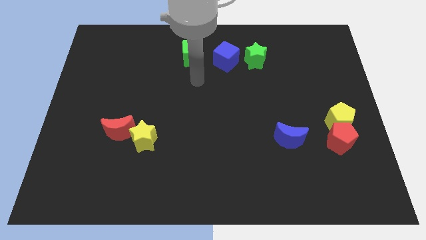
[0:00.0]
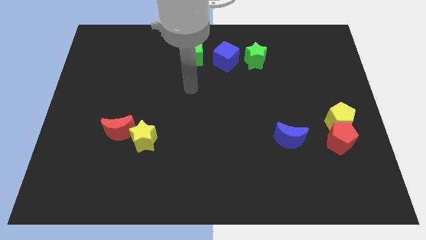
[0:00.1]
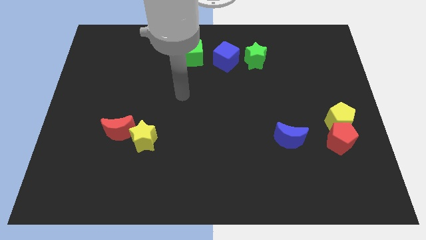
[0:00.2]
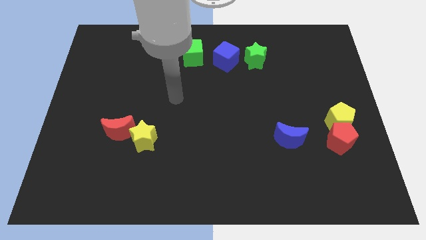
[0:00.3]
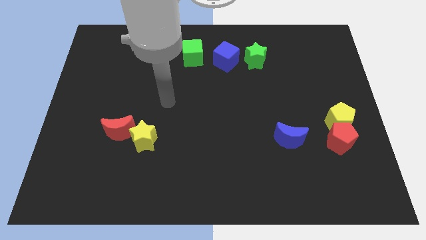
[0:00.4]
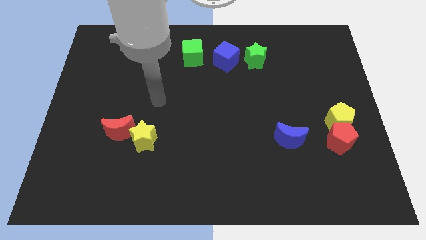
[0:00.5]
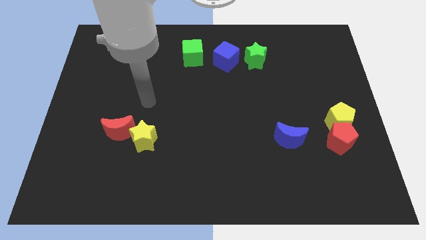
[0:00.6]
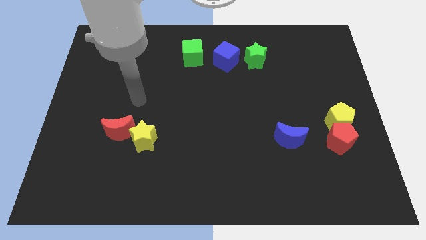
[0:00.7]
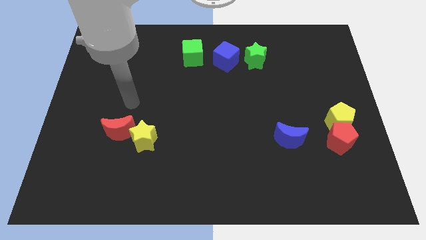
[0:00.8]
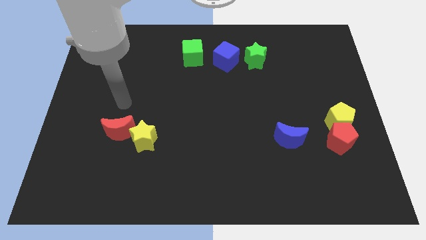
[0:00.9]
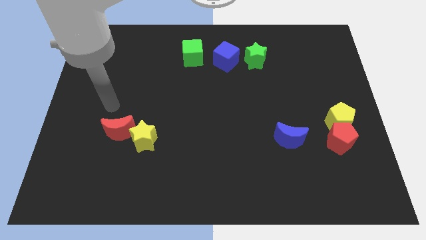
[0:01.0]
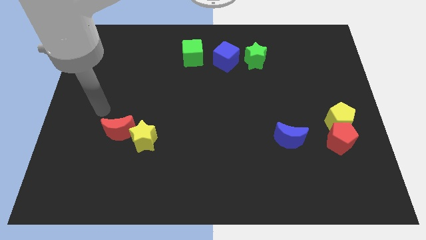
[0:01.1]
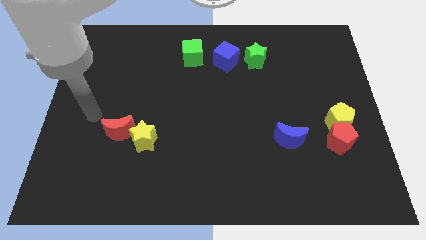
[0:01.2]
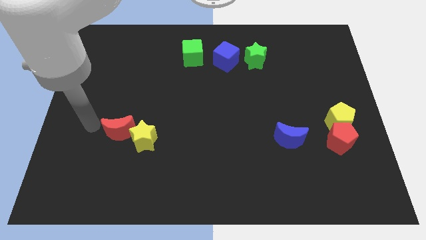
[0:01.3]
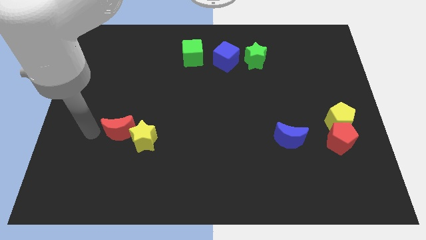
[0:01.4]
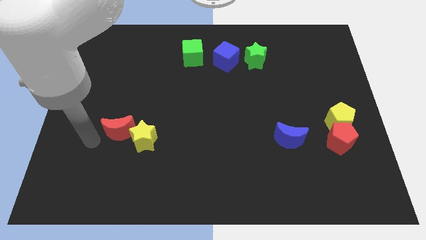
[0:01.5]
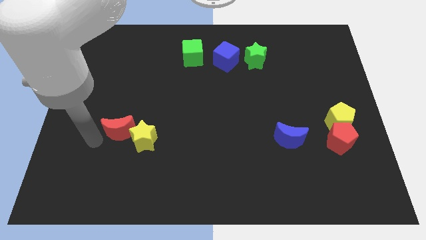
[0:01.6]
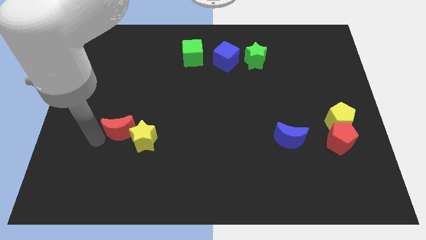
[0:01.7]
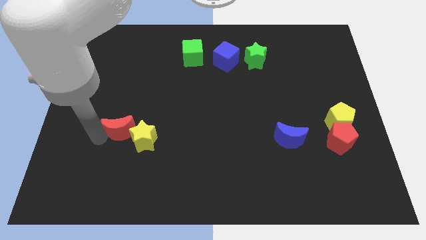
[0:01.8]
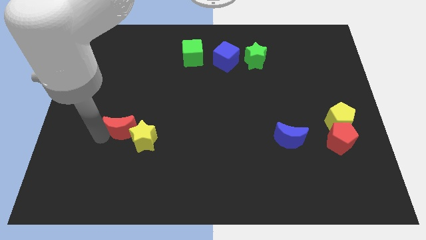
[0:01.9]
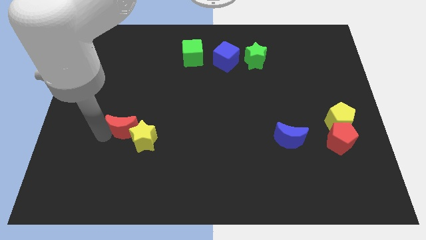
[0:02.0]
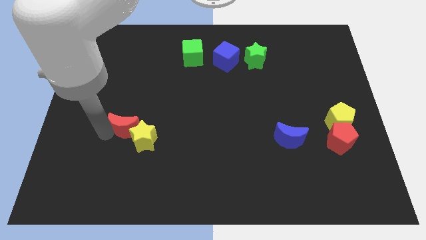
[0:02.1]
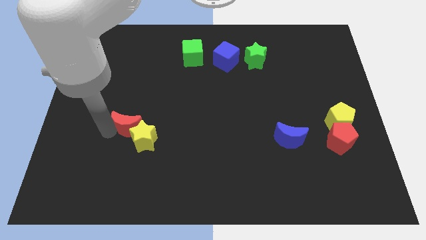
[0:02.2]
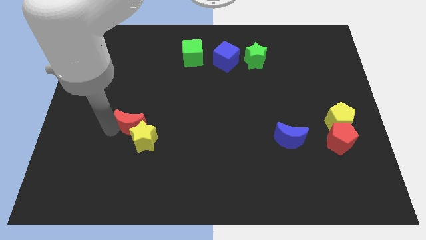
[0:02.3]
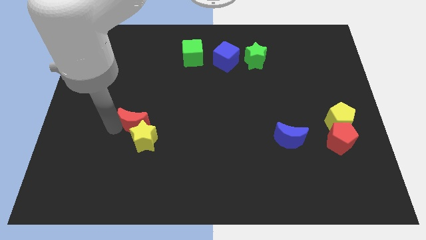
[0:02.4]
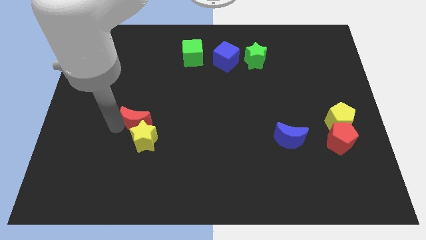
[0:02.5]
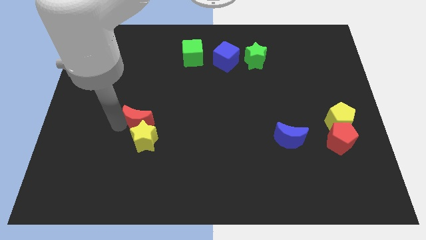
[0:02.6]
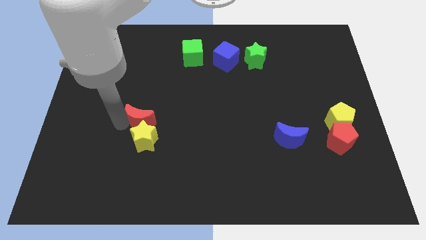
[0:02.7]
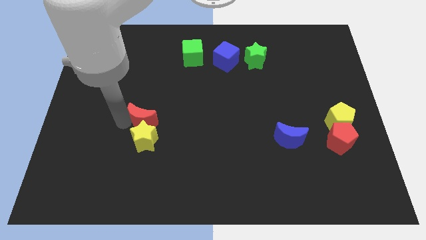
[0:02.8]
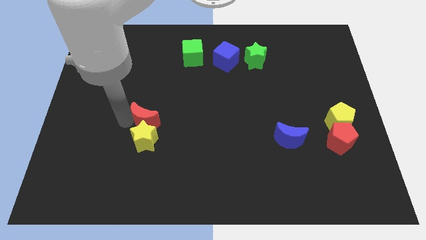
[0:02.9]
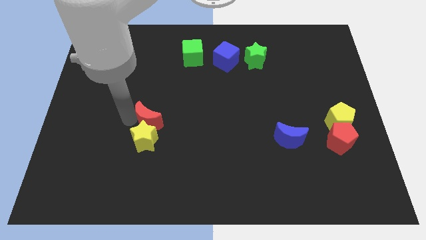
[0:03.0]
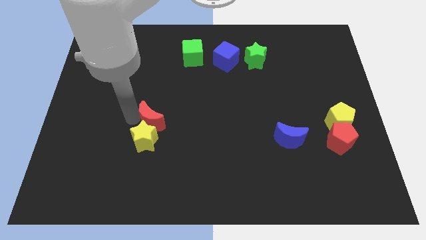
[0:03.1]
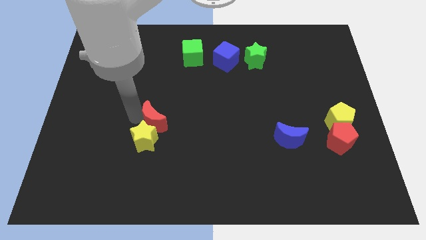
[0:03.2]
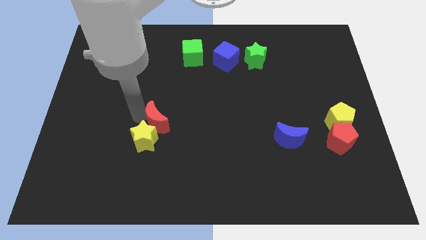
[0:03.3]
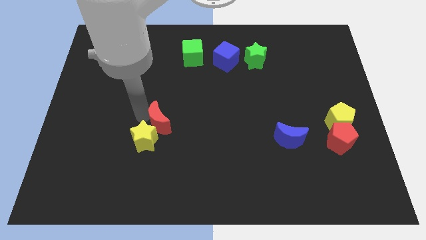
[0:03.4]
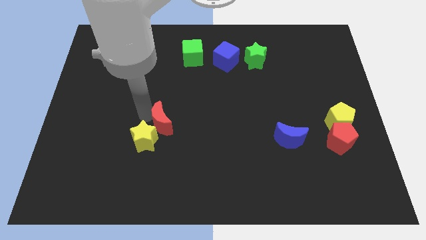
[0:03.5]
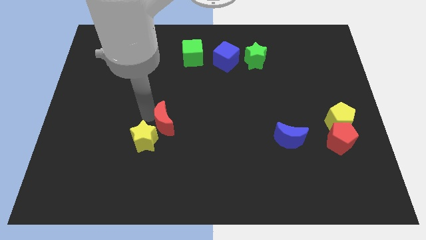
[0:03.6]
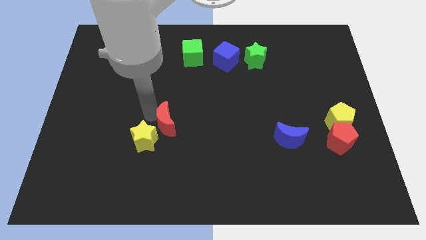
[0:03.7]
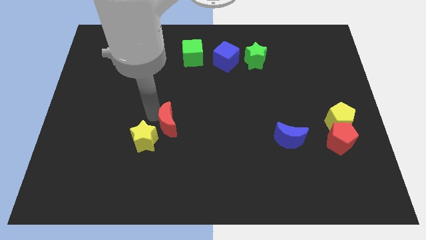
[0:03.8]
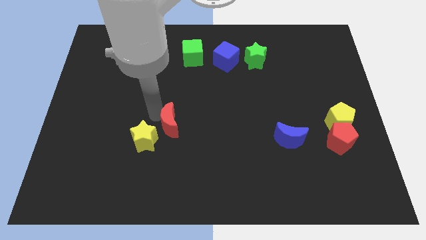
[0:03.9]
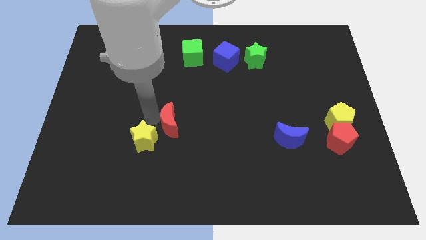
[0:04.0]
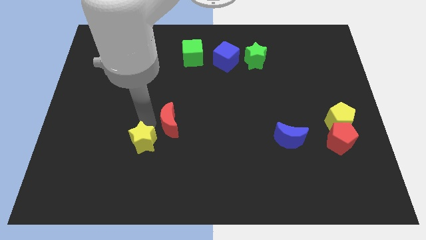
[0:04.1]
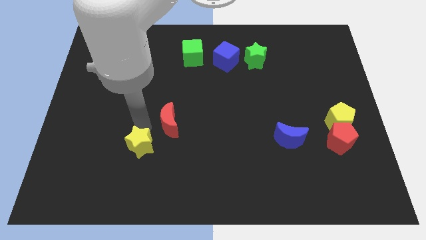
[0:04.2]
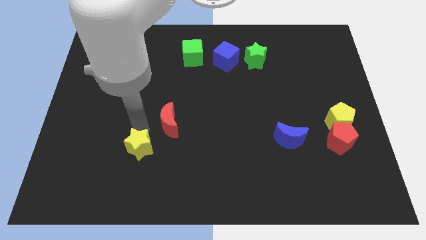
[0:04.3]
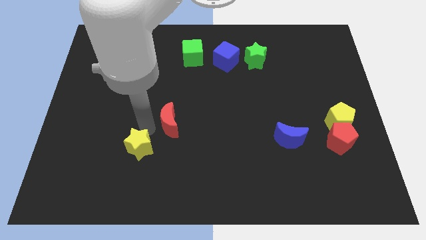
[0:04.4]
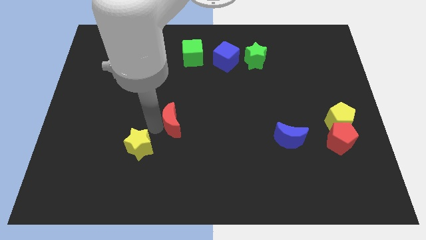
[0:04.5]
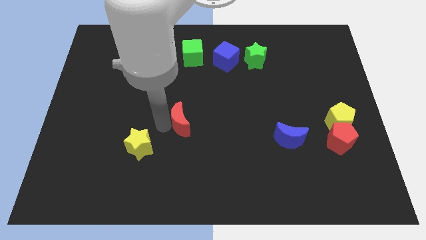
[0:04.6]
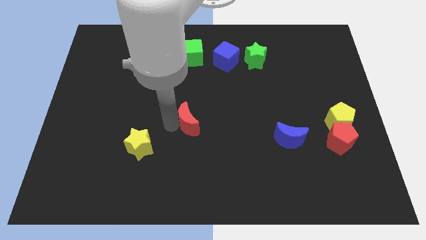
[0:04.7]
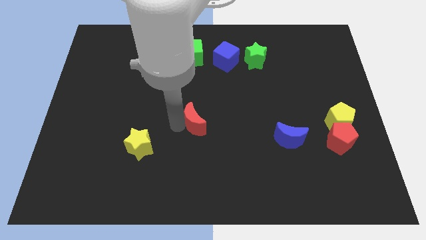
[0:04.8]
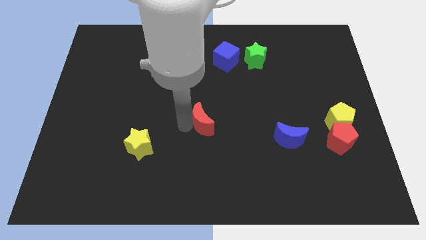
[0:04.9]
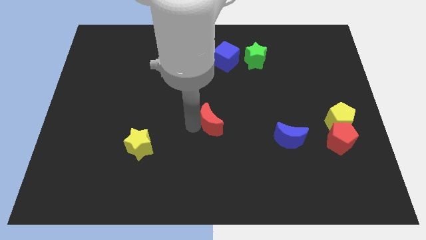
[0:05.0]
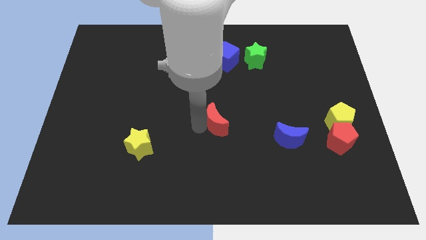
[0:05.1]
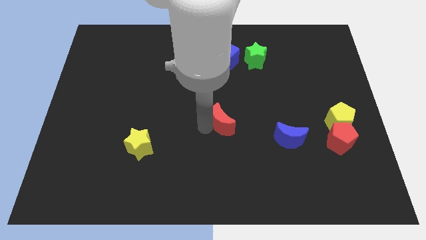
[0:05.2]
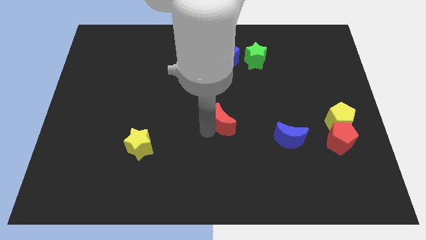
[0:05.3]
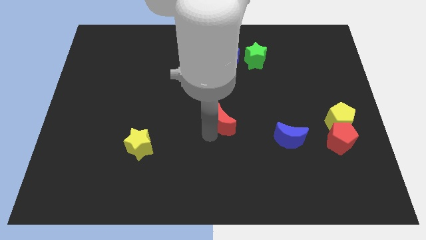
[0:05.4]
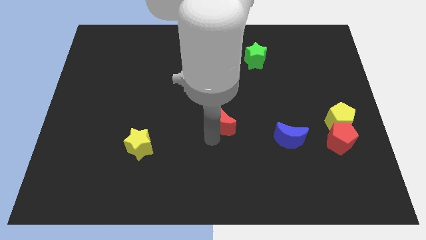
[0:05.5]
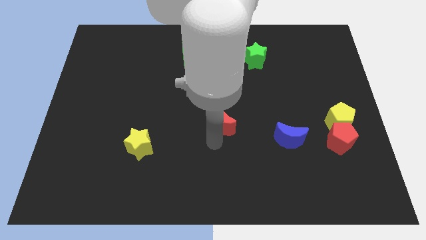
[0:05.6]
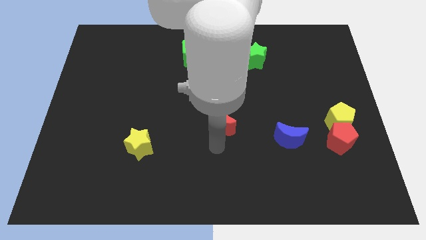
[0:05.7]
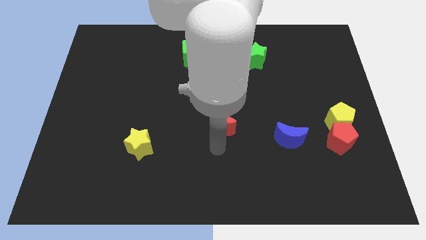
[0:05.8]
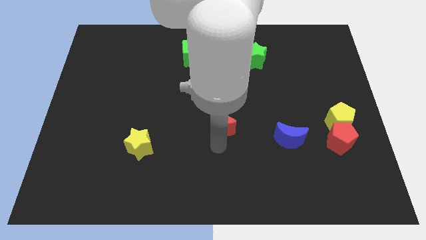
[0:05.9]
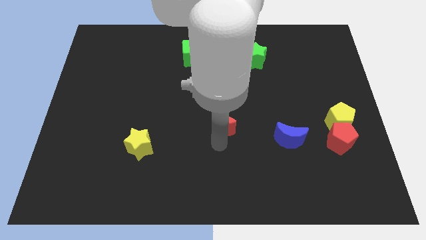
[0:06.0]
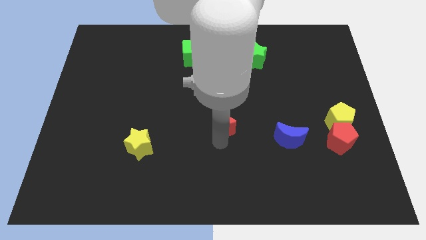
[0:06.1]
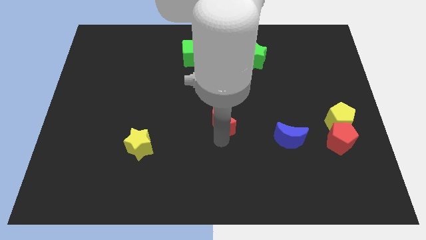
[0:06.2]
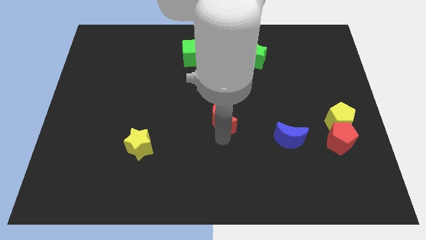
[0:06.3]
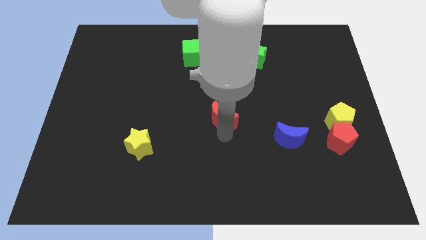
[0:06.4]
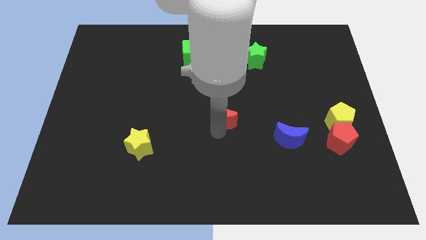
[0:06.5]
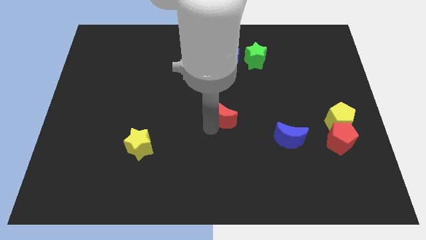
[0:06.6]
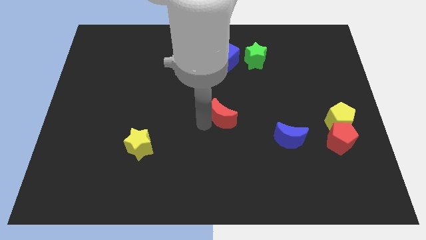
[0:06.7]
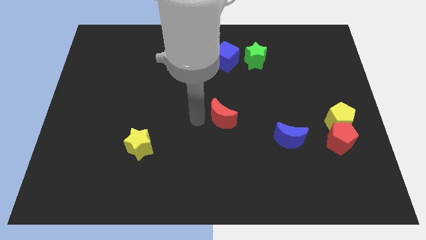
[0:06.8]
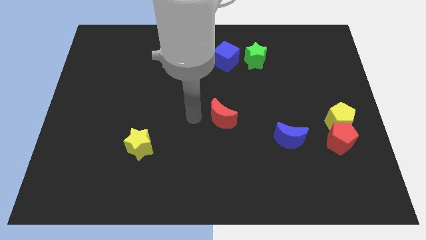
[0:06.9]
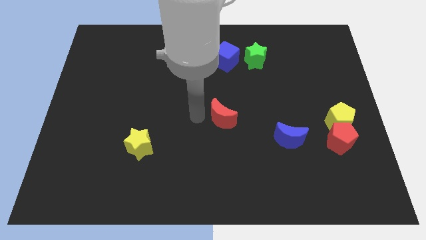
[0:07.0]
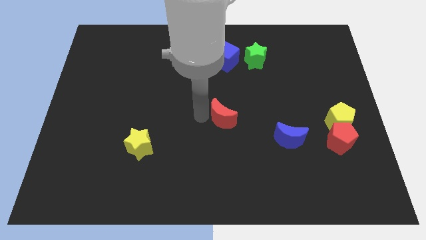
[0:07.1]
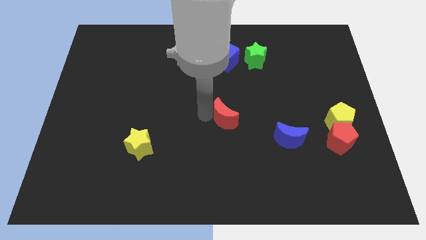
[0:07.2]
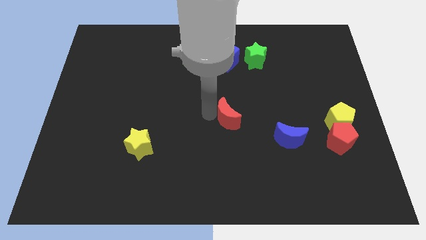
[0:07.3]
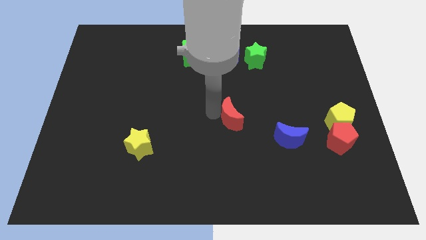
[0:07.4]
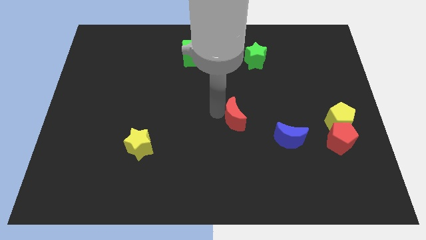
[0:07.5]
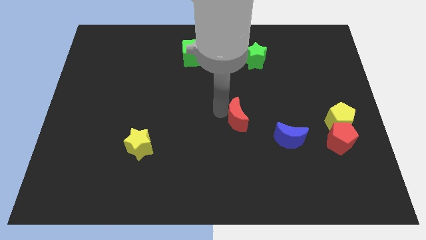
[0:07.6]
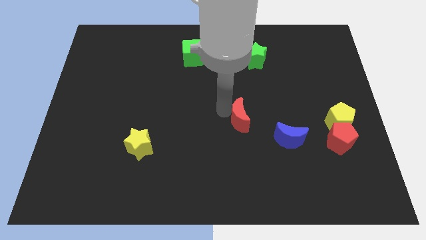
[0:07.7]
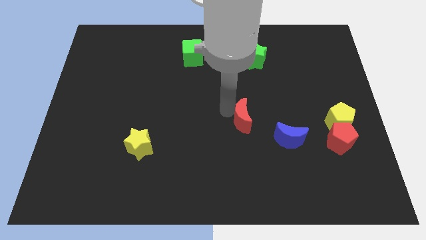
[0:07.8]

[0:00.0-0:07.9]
move the red moon to the top left of the blue moon

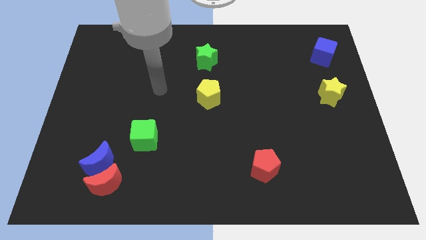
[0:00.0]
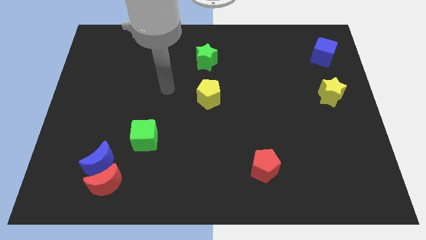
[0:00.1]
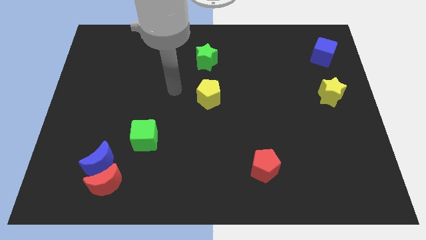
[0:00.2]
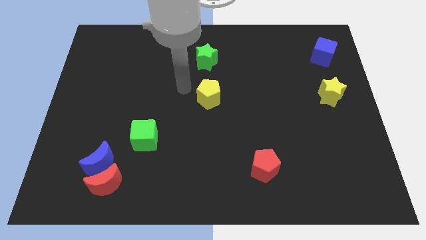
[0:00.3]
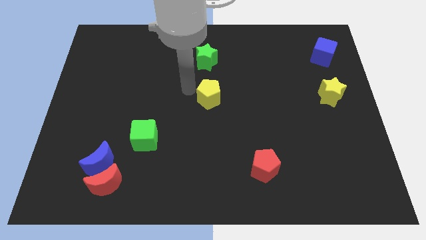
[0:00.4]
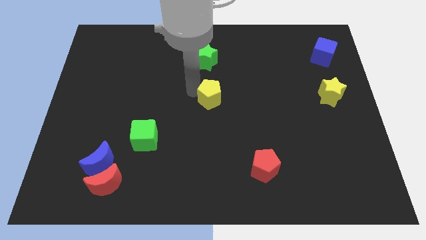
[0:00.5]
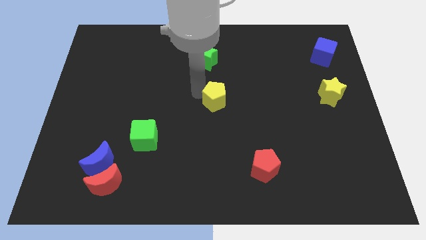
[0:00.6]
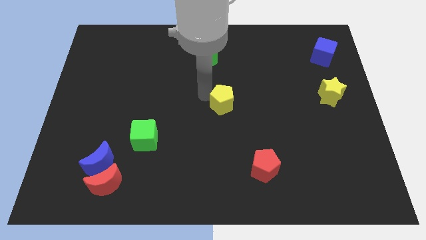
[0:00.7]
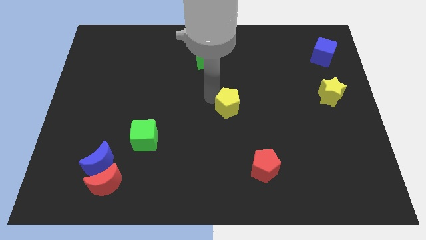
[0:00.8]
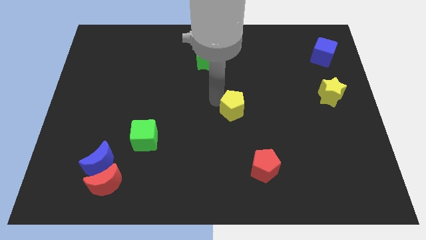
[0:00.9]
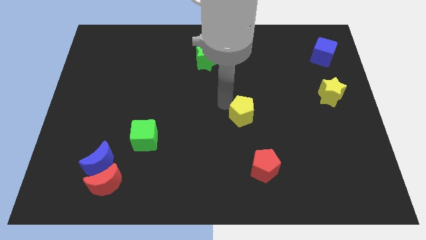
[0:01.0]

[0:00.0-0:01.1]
move the yellow pentagon above the red pentagon
